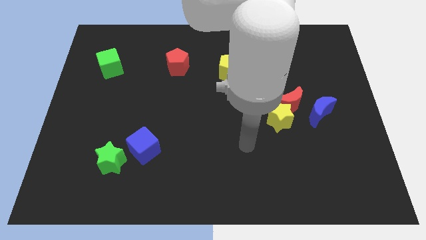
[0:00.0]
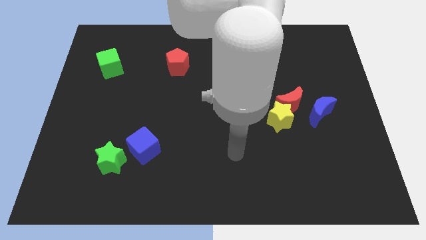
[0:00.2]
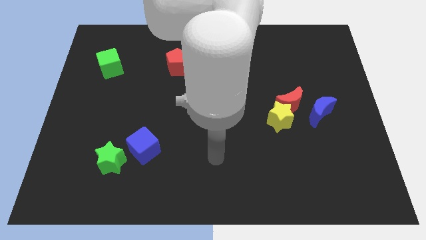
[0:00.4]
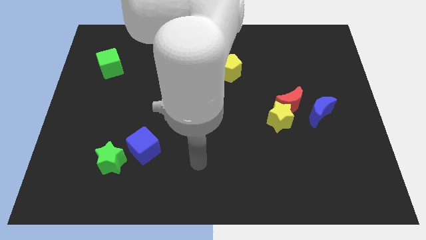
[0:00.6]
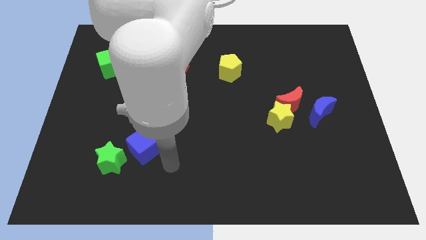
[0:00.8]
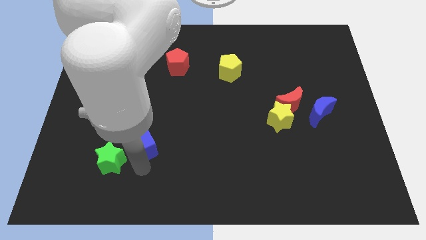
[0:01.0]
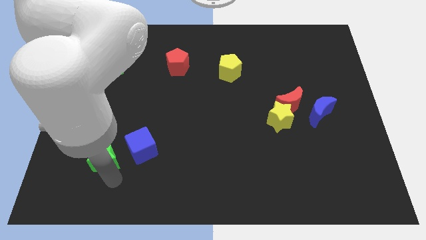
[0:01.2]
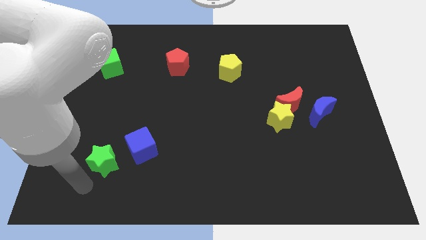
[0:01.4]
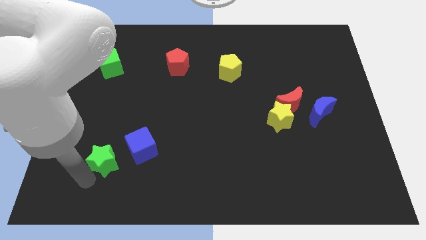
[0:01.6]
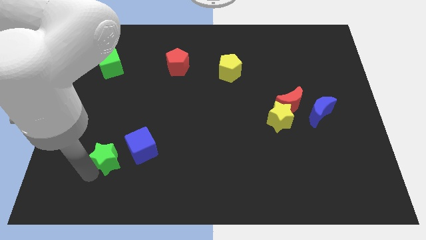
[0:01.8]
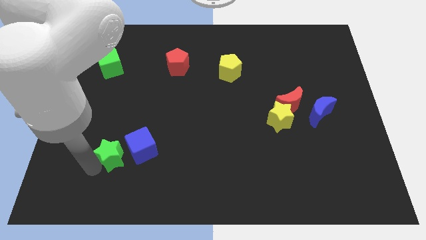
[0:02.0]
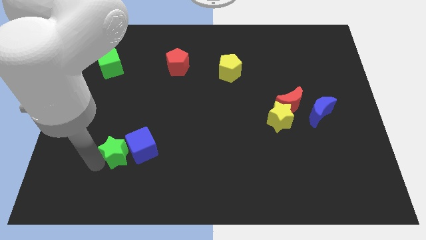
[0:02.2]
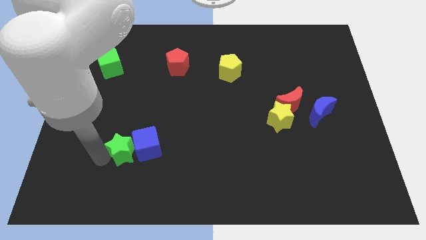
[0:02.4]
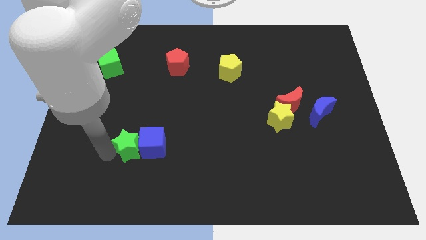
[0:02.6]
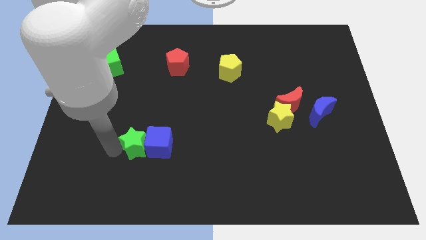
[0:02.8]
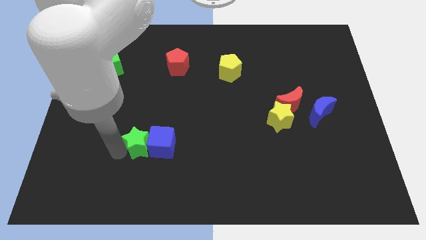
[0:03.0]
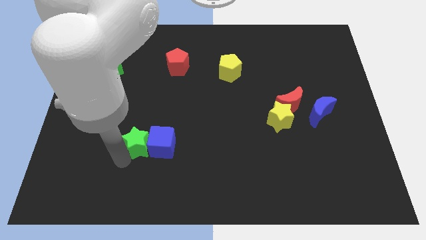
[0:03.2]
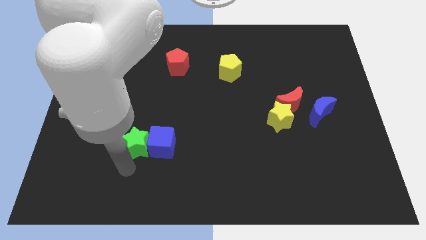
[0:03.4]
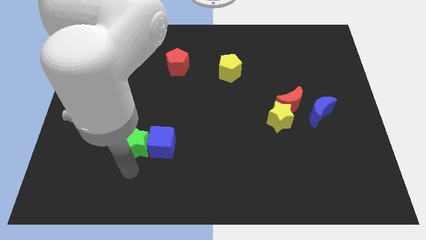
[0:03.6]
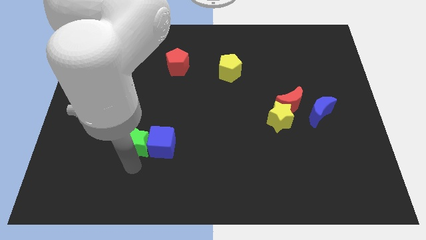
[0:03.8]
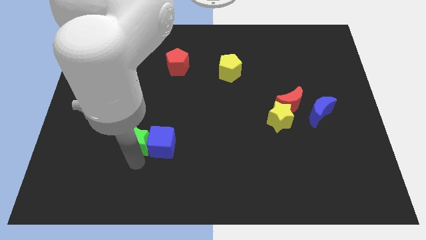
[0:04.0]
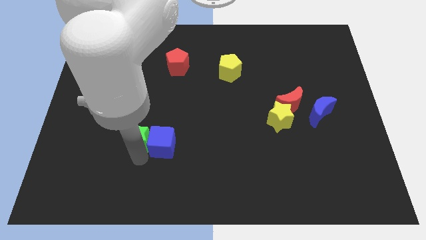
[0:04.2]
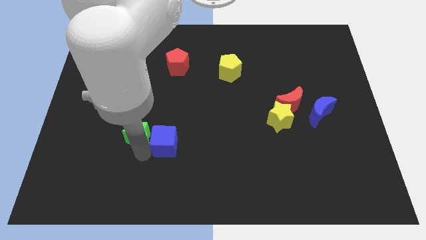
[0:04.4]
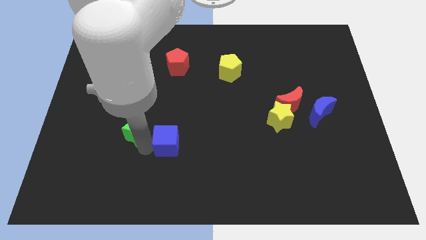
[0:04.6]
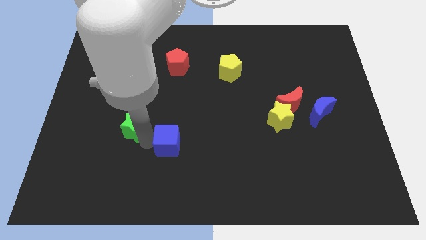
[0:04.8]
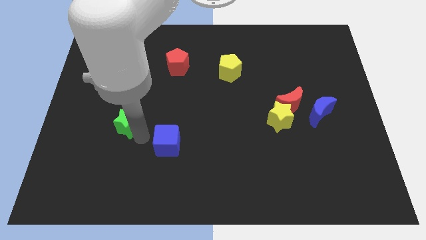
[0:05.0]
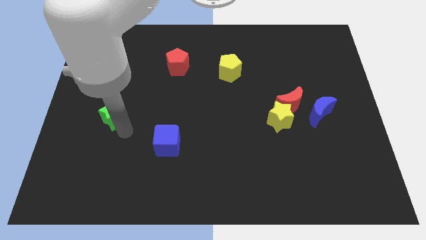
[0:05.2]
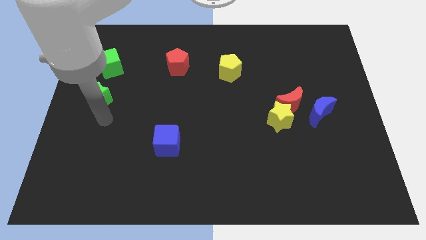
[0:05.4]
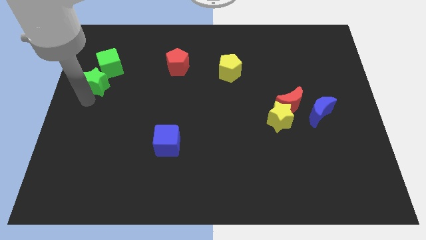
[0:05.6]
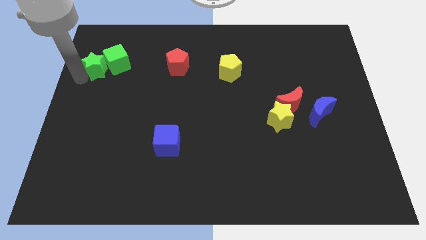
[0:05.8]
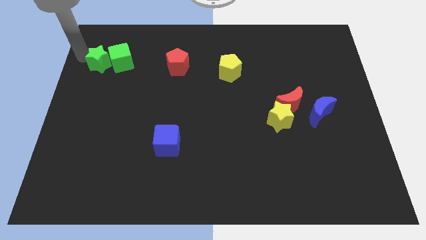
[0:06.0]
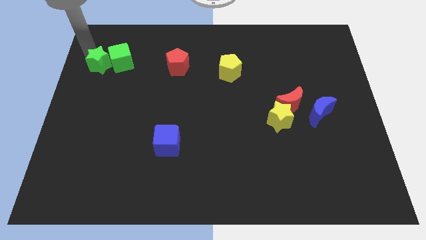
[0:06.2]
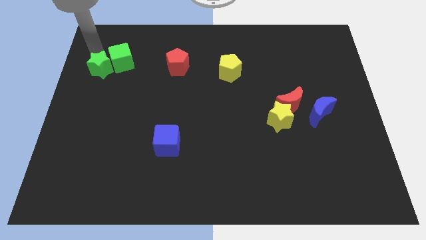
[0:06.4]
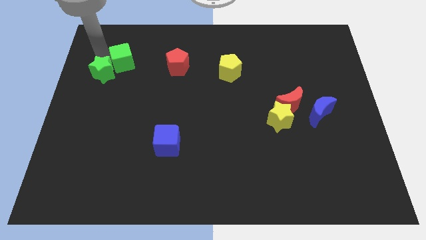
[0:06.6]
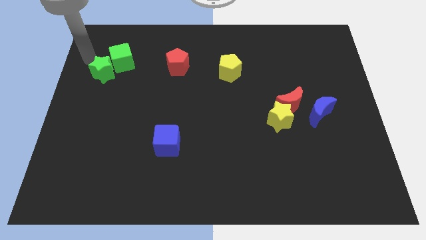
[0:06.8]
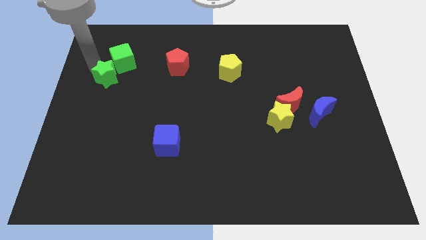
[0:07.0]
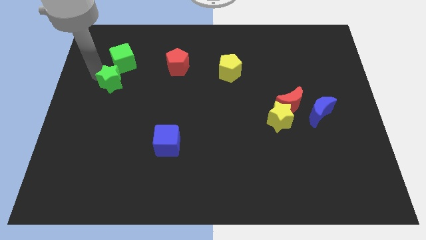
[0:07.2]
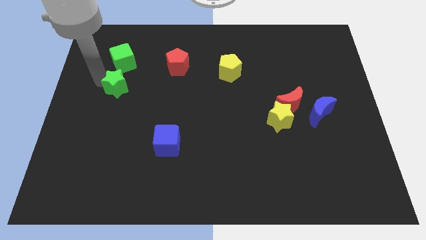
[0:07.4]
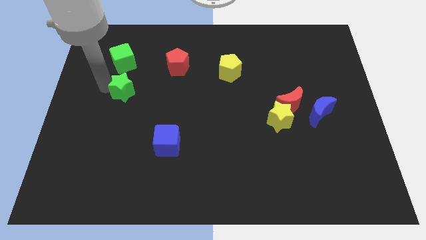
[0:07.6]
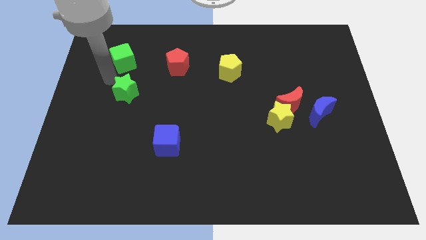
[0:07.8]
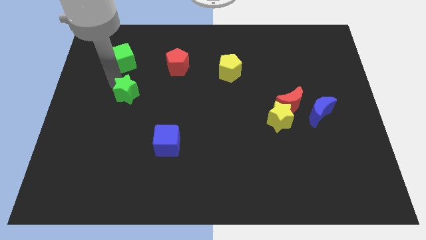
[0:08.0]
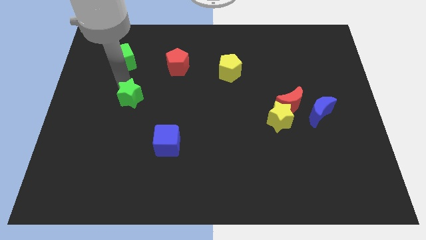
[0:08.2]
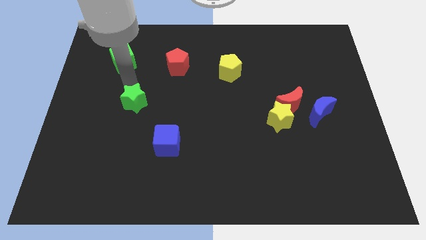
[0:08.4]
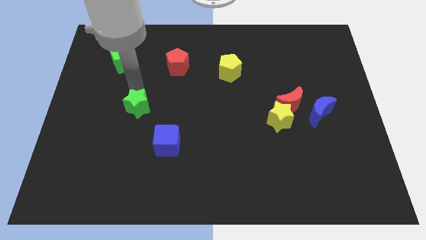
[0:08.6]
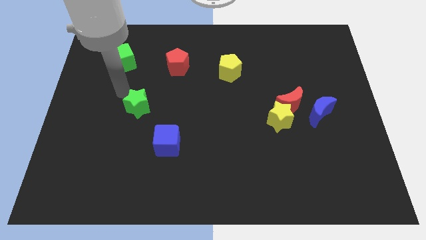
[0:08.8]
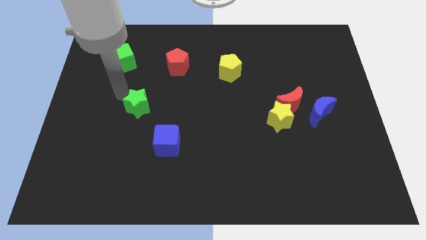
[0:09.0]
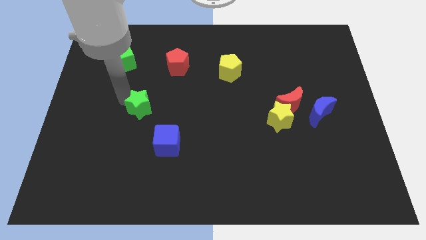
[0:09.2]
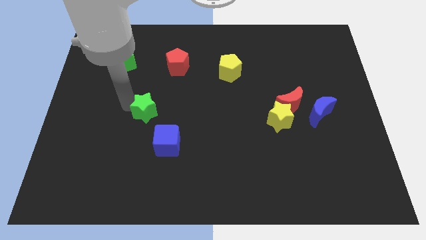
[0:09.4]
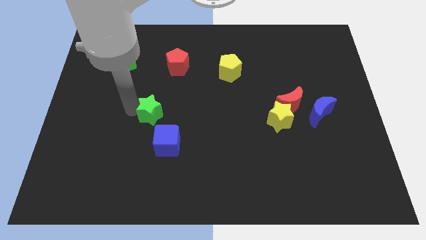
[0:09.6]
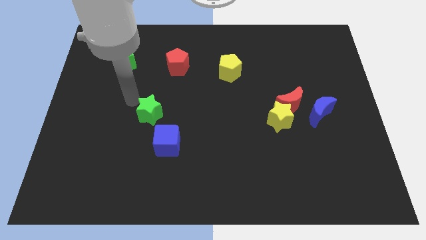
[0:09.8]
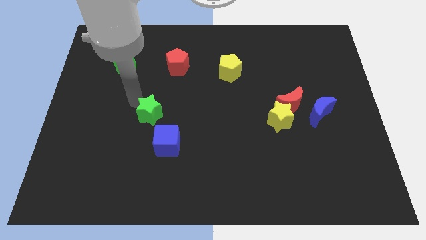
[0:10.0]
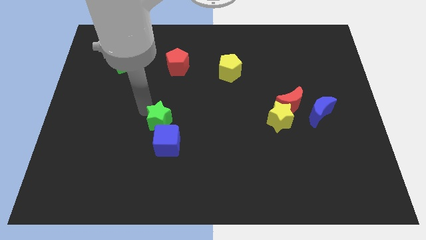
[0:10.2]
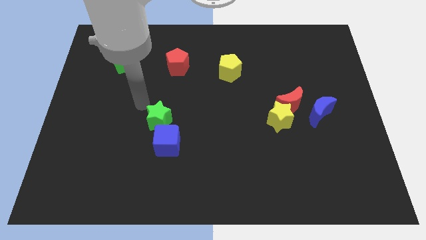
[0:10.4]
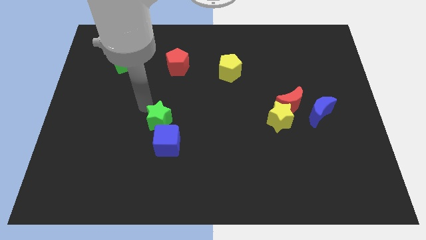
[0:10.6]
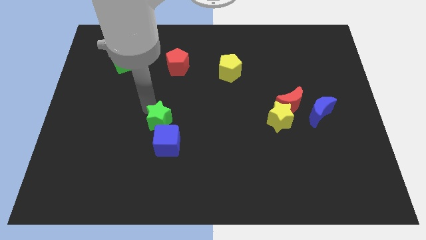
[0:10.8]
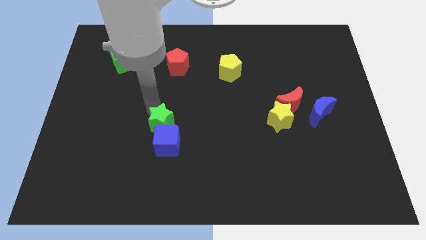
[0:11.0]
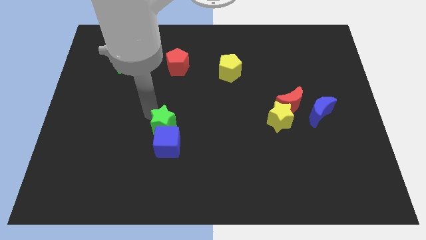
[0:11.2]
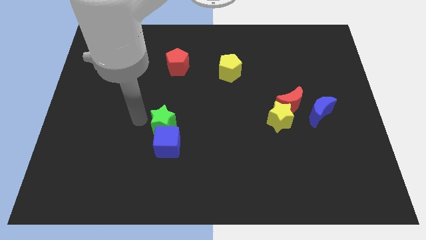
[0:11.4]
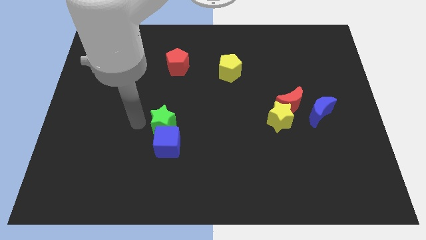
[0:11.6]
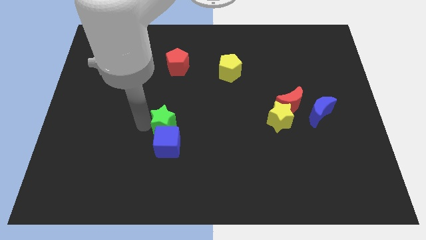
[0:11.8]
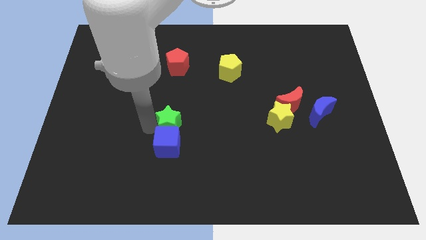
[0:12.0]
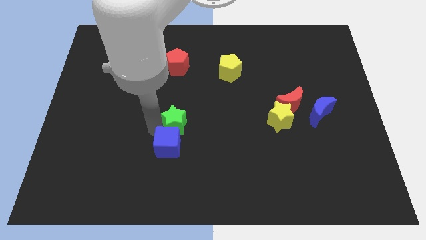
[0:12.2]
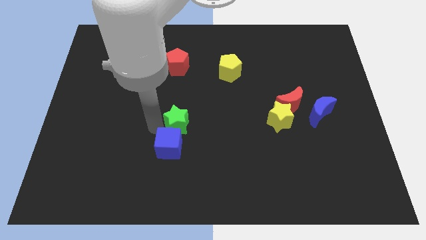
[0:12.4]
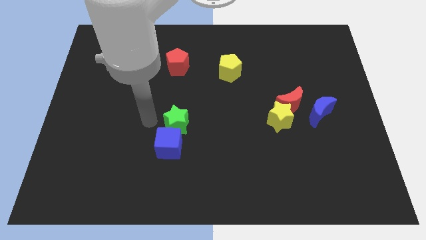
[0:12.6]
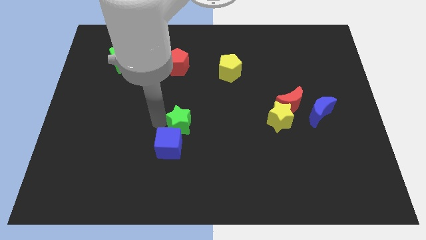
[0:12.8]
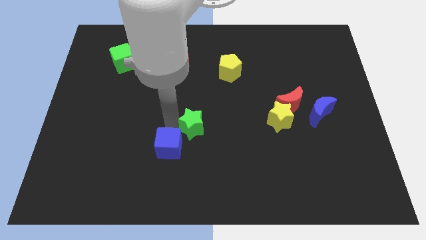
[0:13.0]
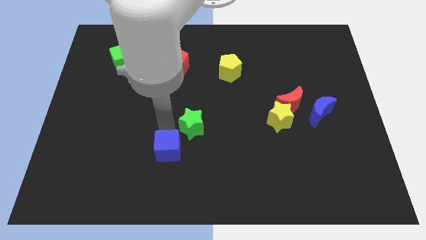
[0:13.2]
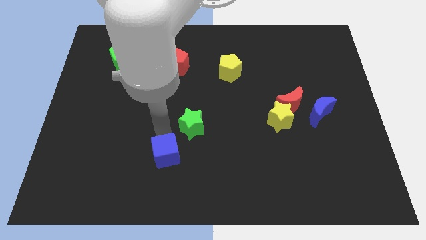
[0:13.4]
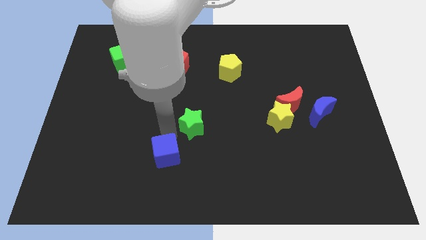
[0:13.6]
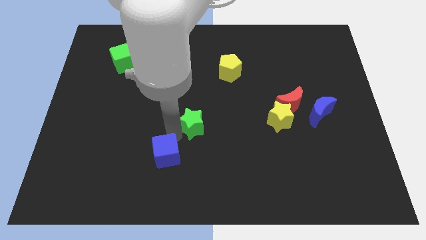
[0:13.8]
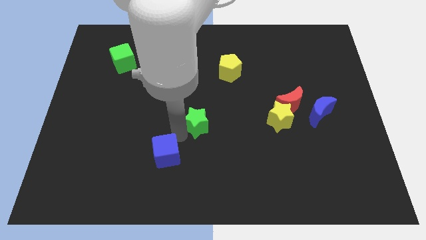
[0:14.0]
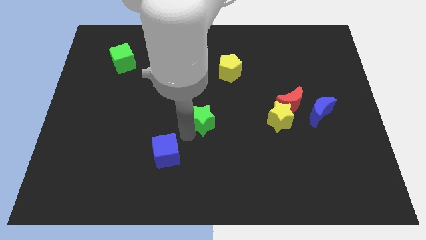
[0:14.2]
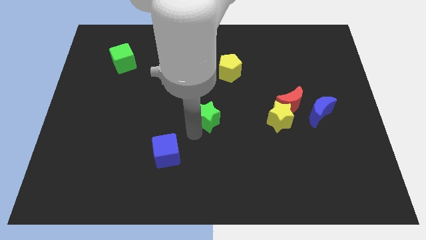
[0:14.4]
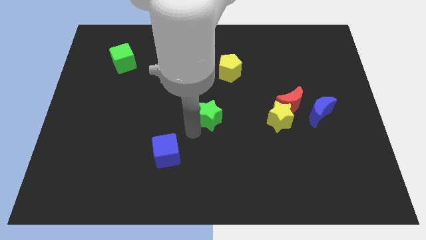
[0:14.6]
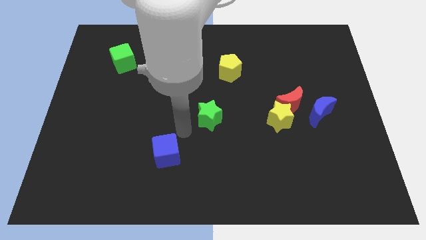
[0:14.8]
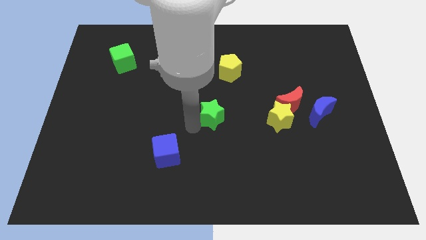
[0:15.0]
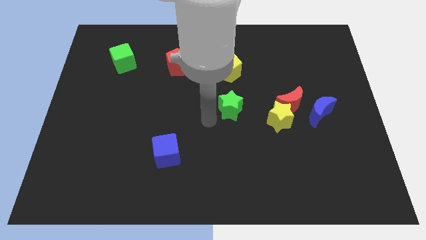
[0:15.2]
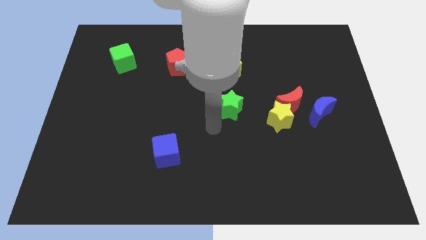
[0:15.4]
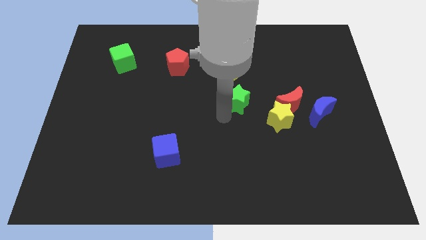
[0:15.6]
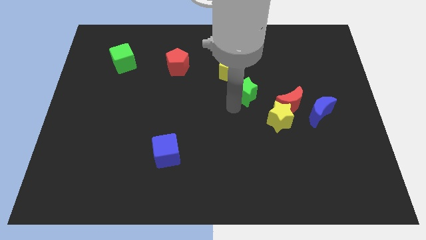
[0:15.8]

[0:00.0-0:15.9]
push the green star to the bottom right of the yellow pentagon
